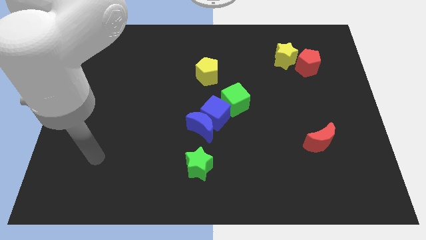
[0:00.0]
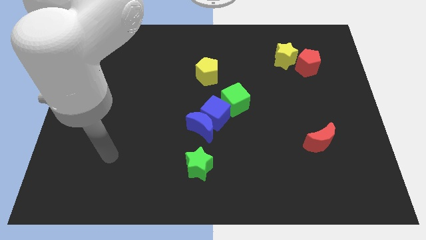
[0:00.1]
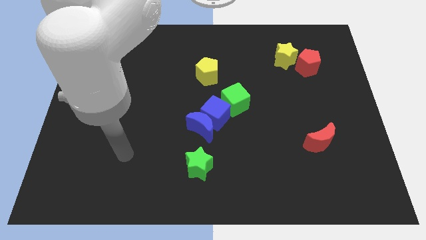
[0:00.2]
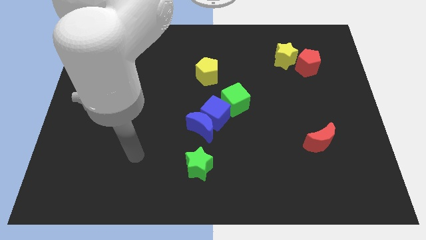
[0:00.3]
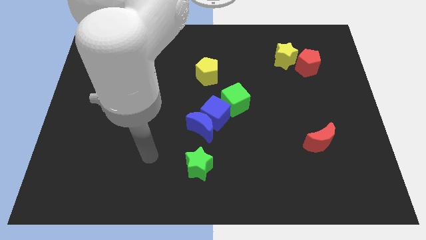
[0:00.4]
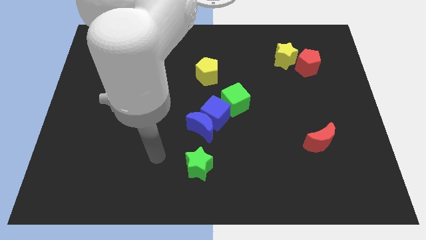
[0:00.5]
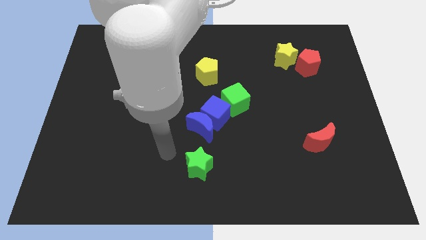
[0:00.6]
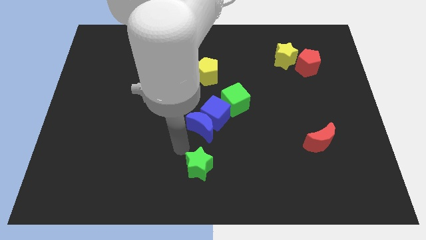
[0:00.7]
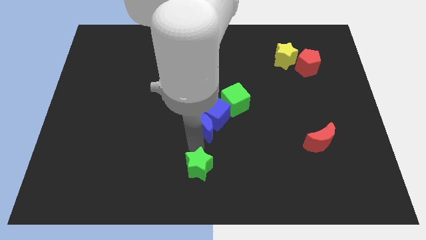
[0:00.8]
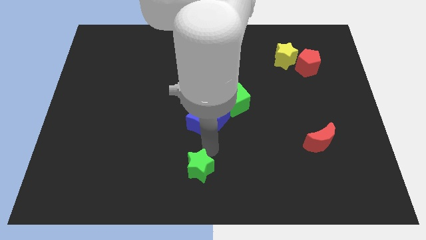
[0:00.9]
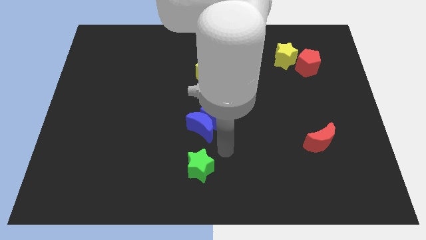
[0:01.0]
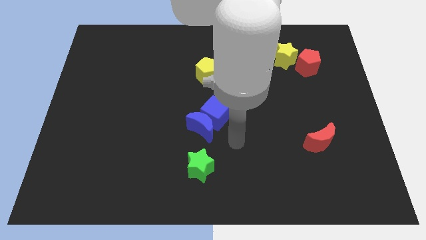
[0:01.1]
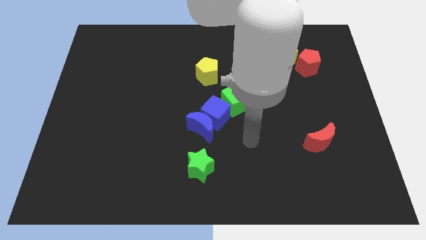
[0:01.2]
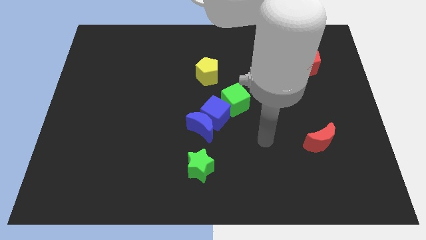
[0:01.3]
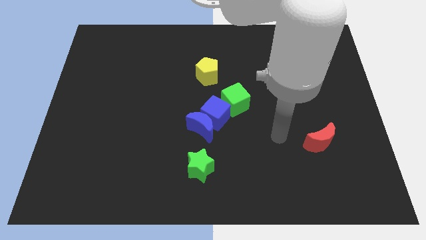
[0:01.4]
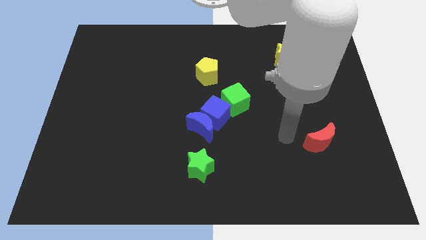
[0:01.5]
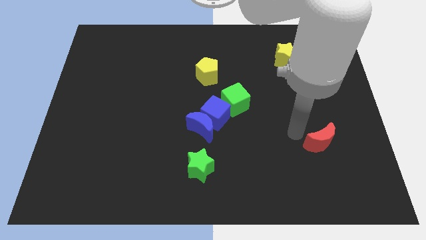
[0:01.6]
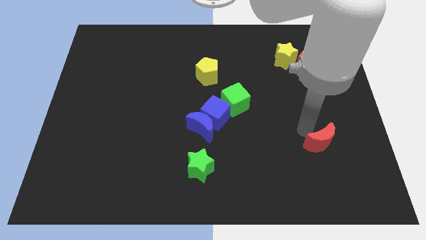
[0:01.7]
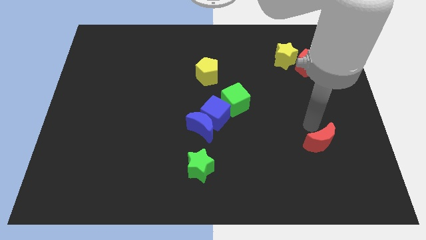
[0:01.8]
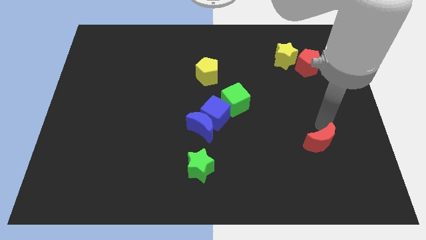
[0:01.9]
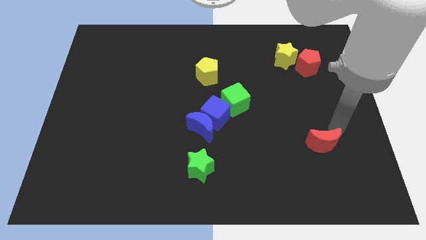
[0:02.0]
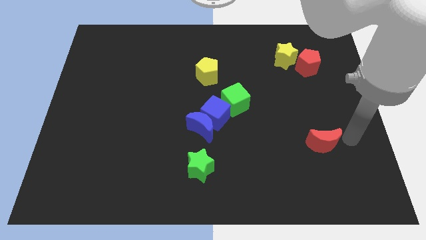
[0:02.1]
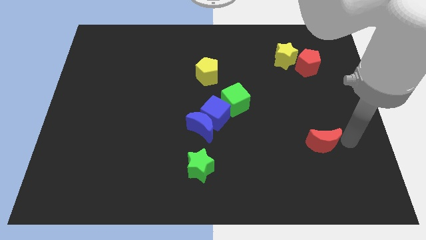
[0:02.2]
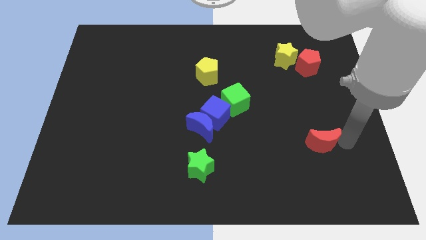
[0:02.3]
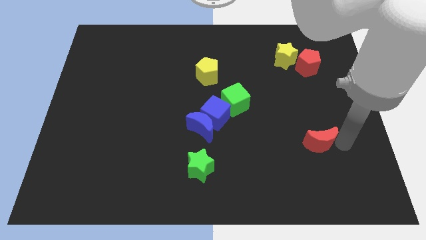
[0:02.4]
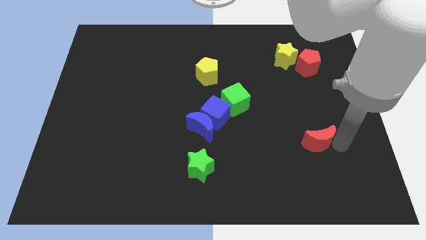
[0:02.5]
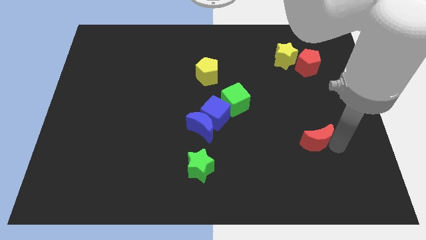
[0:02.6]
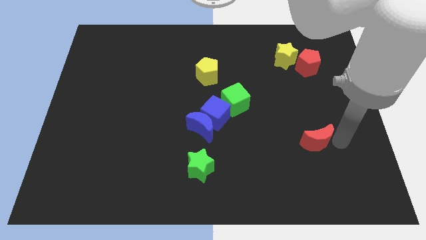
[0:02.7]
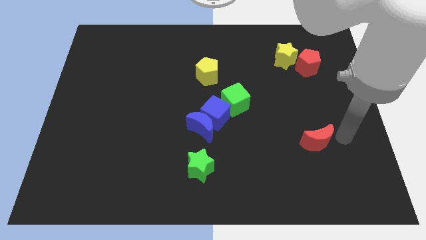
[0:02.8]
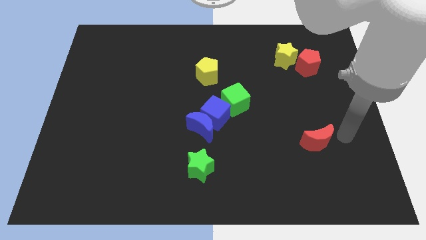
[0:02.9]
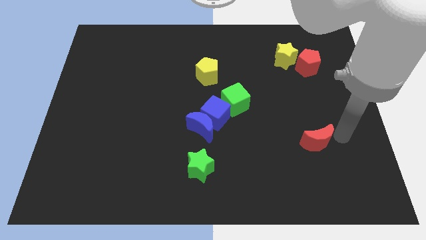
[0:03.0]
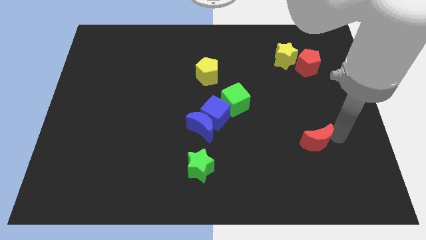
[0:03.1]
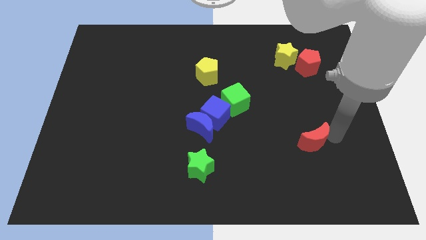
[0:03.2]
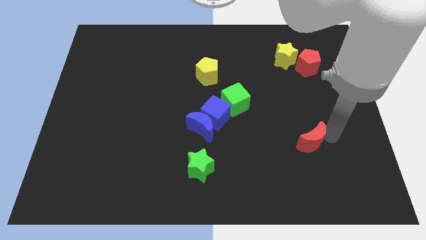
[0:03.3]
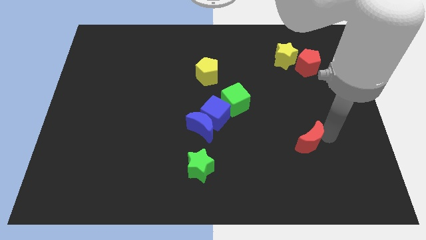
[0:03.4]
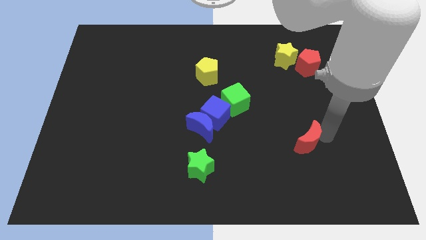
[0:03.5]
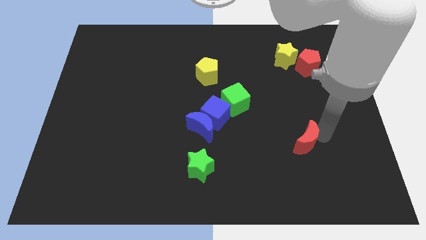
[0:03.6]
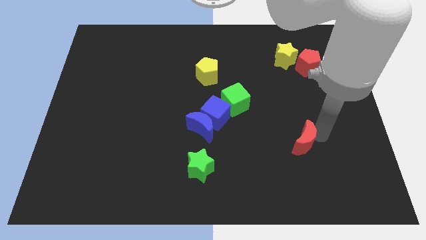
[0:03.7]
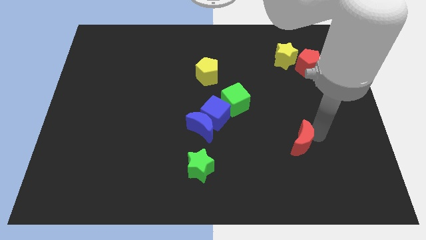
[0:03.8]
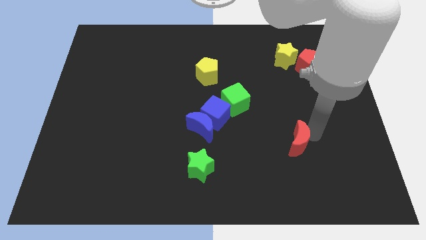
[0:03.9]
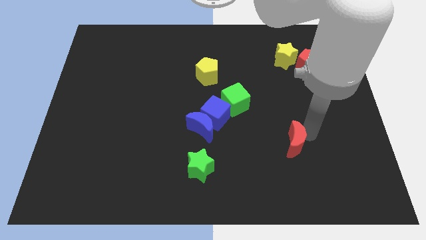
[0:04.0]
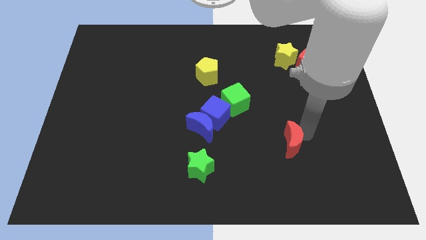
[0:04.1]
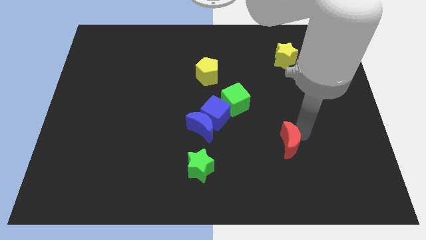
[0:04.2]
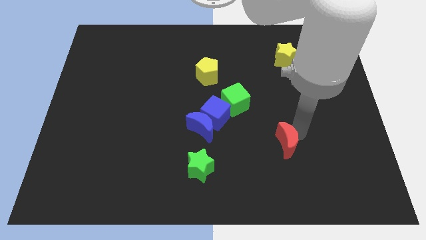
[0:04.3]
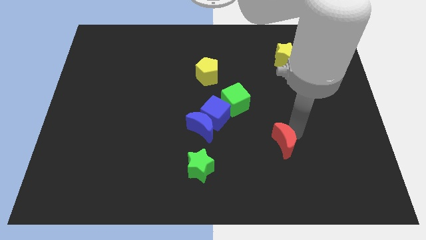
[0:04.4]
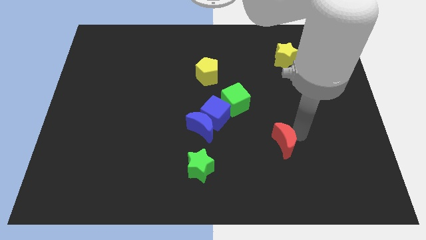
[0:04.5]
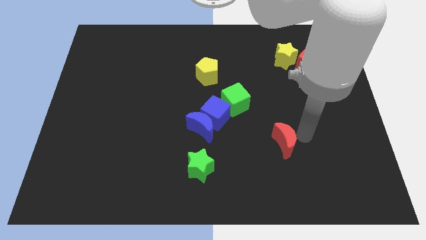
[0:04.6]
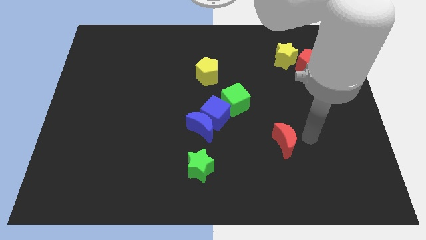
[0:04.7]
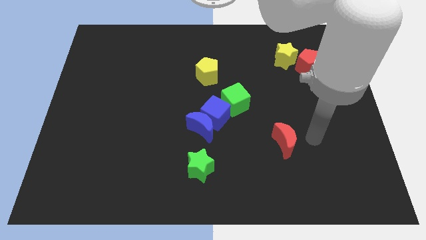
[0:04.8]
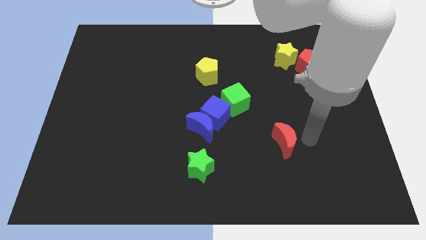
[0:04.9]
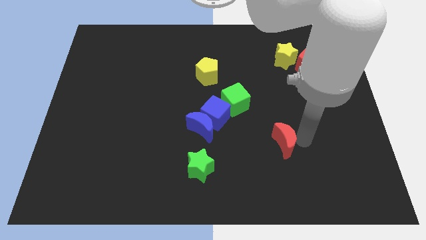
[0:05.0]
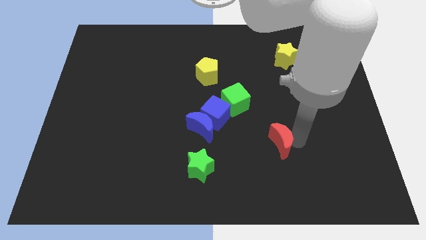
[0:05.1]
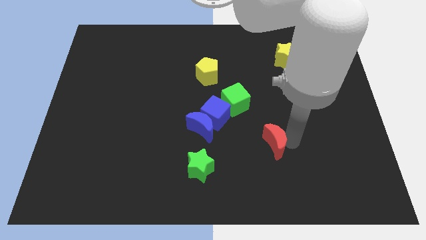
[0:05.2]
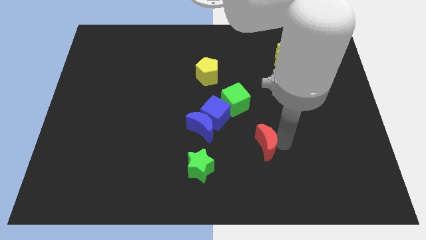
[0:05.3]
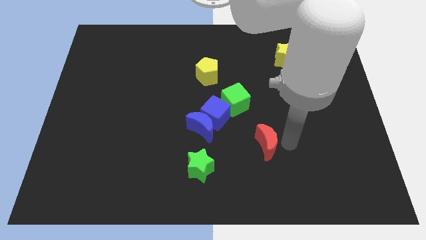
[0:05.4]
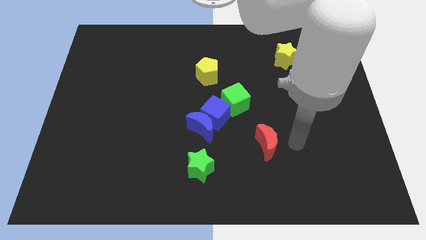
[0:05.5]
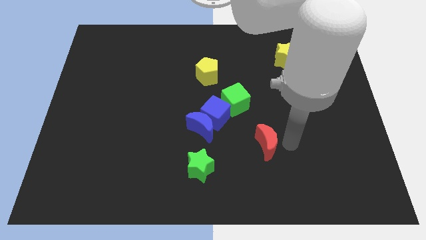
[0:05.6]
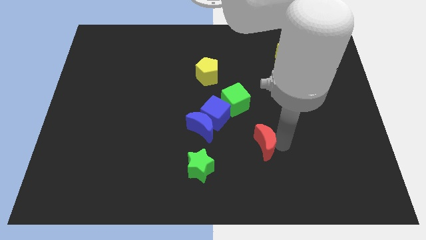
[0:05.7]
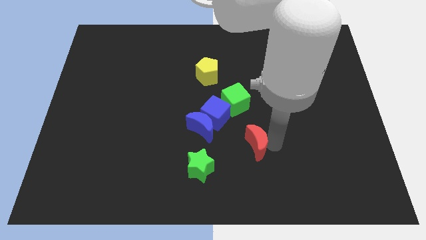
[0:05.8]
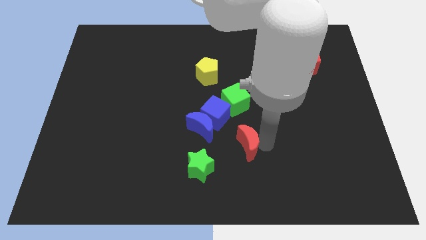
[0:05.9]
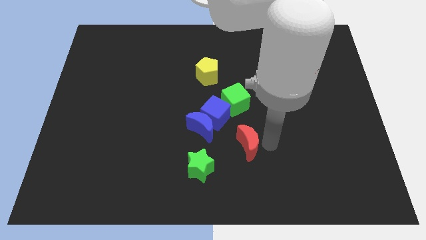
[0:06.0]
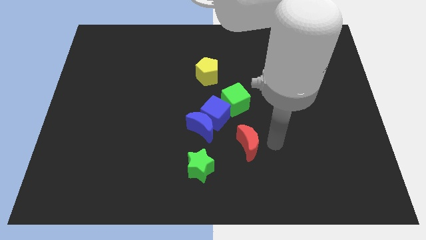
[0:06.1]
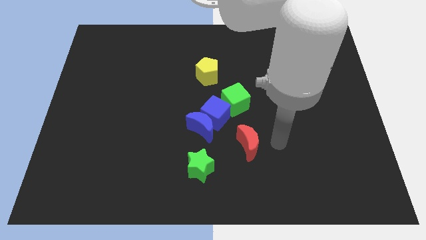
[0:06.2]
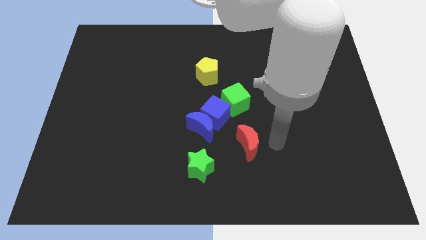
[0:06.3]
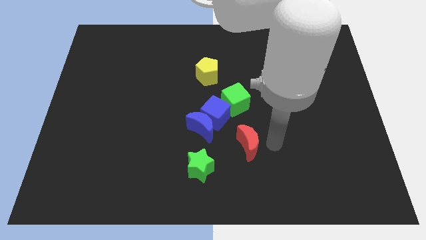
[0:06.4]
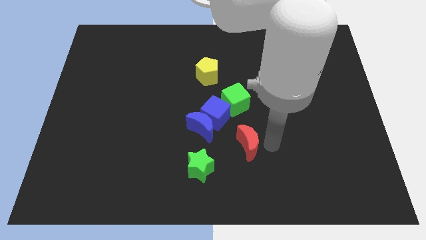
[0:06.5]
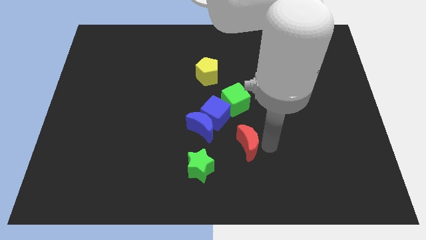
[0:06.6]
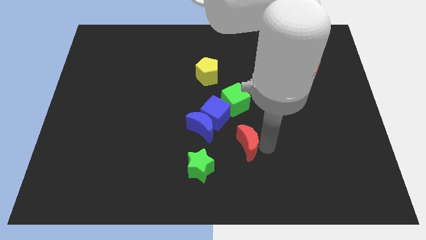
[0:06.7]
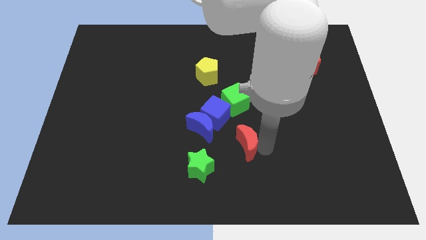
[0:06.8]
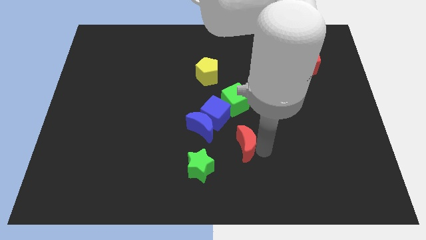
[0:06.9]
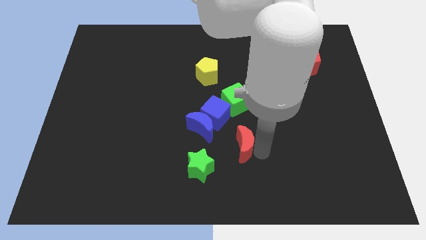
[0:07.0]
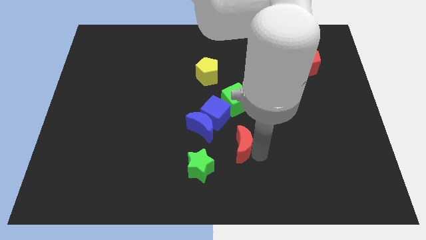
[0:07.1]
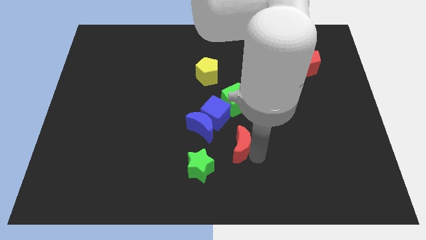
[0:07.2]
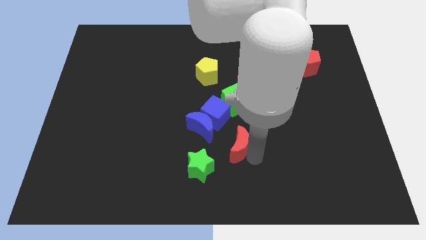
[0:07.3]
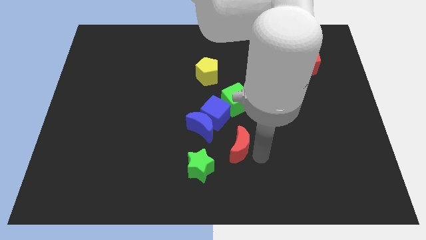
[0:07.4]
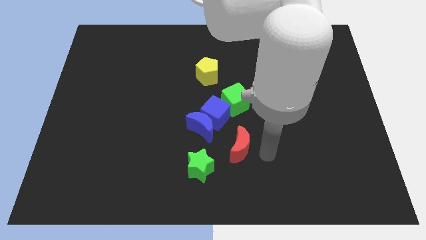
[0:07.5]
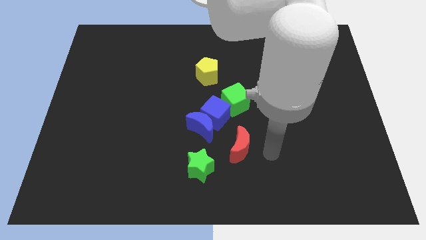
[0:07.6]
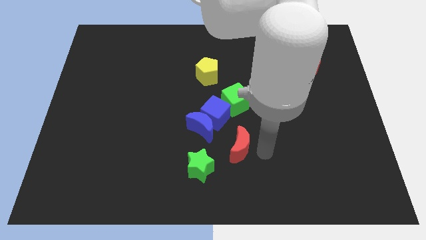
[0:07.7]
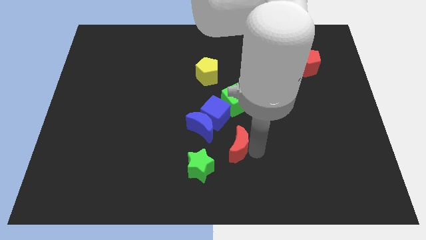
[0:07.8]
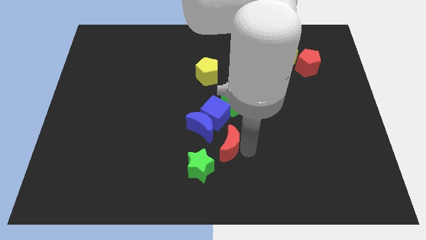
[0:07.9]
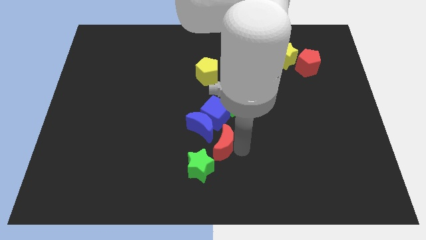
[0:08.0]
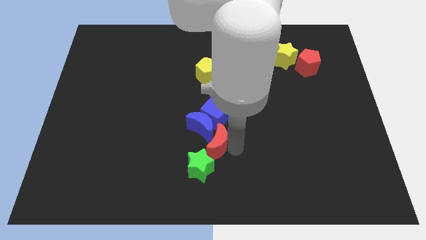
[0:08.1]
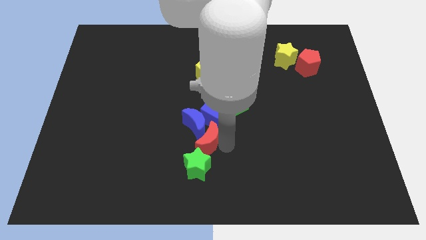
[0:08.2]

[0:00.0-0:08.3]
push the red moon to the bottom left side of the blue cube
